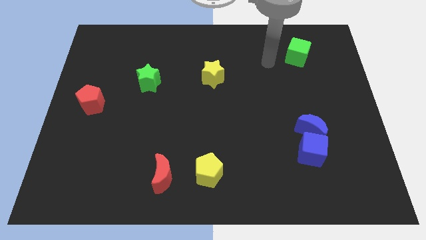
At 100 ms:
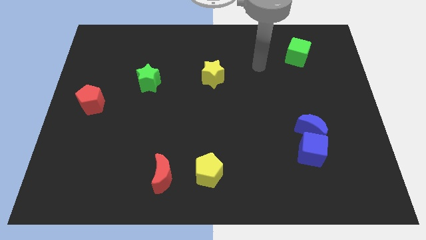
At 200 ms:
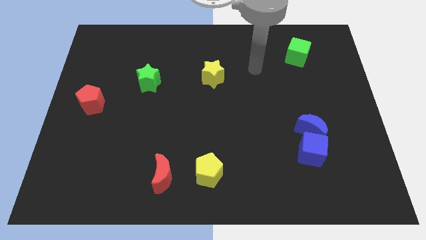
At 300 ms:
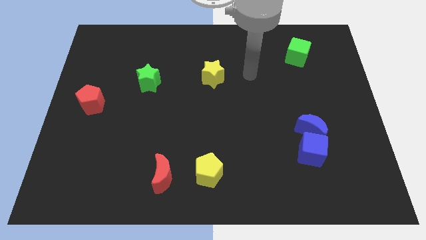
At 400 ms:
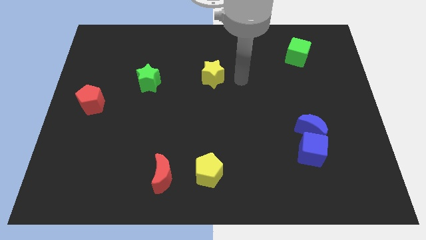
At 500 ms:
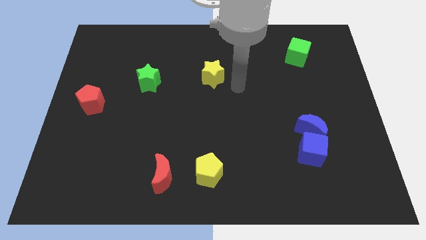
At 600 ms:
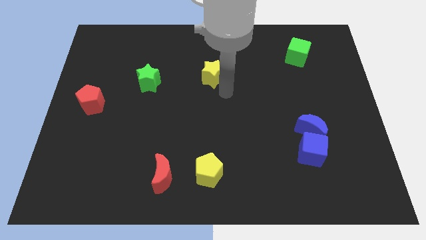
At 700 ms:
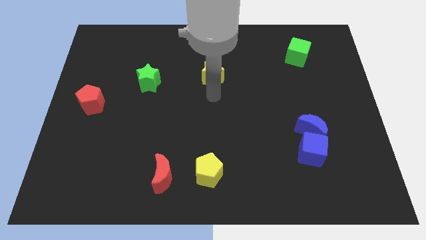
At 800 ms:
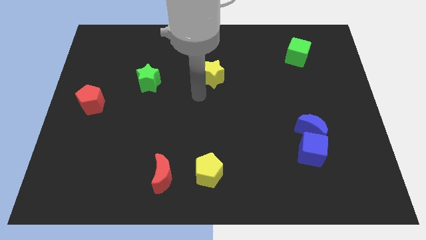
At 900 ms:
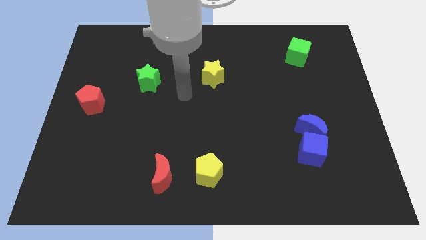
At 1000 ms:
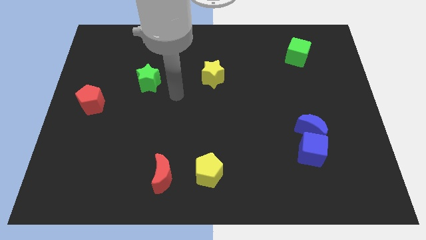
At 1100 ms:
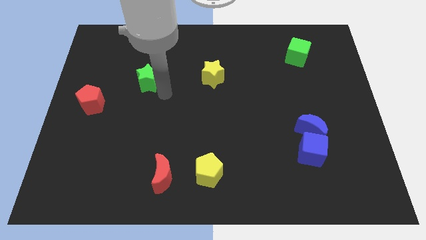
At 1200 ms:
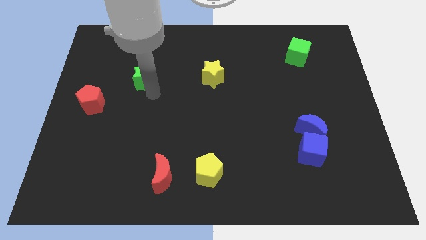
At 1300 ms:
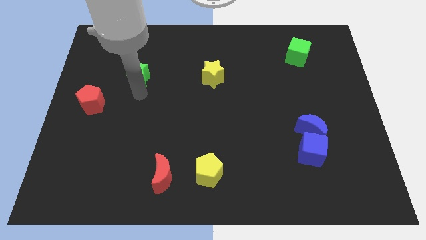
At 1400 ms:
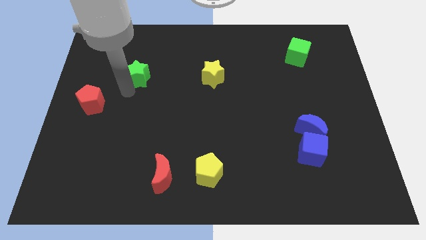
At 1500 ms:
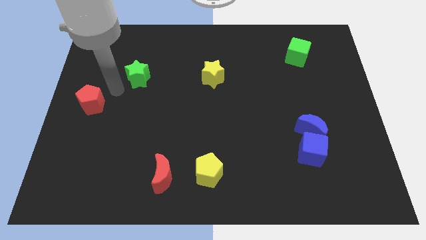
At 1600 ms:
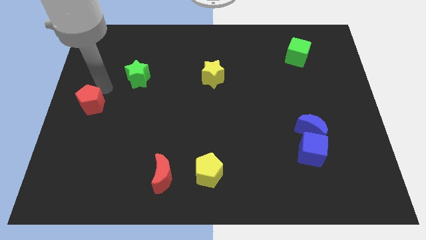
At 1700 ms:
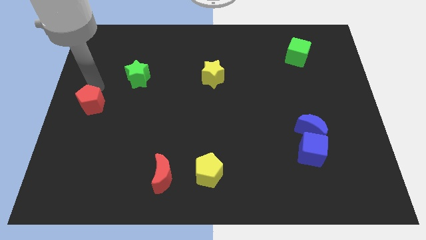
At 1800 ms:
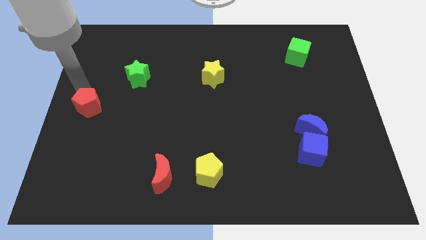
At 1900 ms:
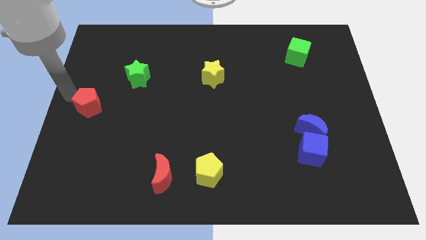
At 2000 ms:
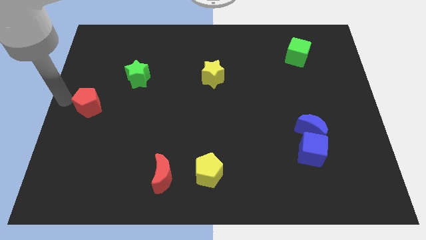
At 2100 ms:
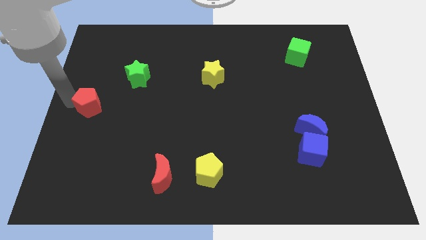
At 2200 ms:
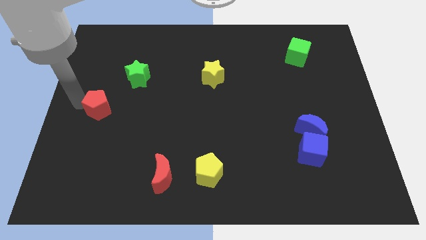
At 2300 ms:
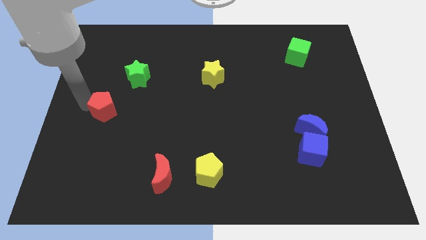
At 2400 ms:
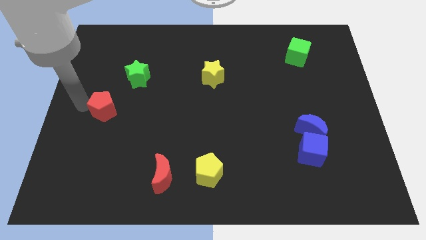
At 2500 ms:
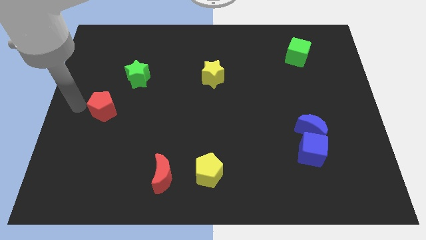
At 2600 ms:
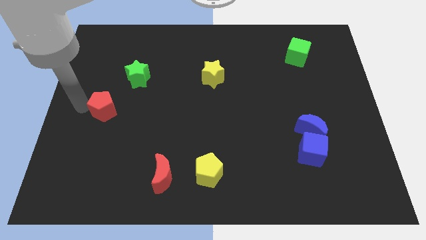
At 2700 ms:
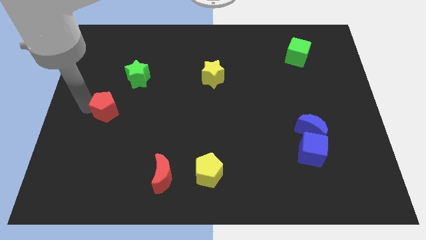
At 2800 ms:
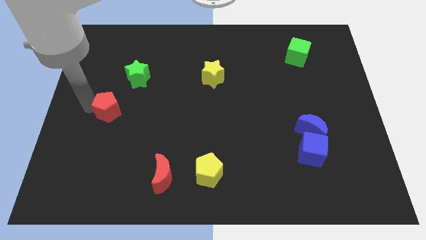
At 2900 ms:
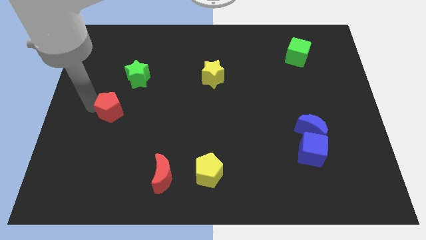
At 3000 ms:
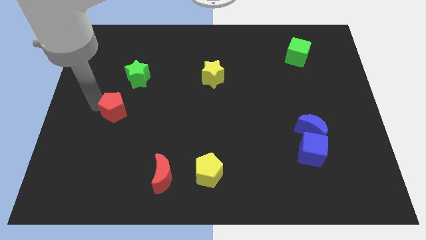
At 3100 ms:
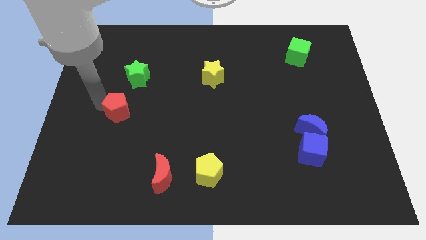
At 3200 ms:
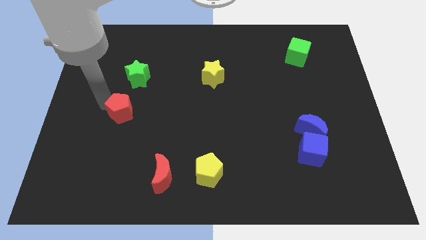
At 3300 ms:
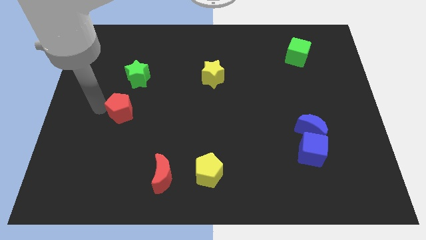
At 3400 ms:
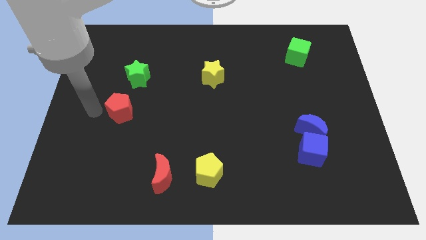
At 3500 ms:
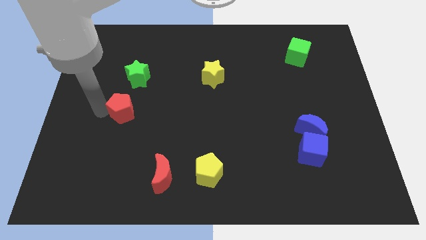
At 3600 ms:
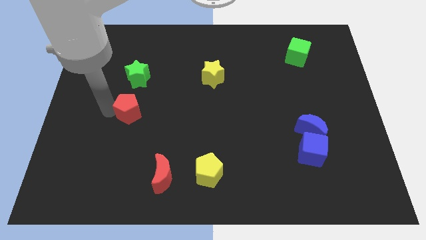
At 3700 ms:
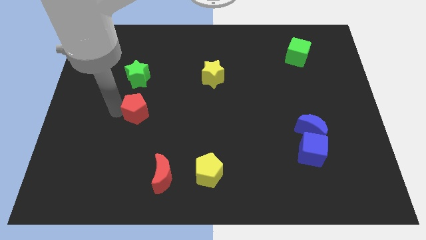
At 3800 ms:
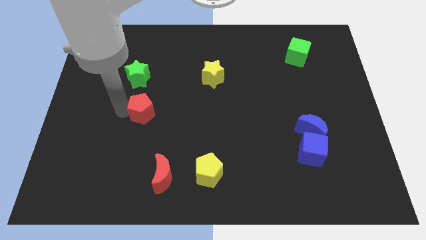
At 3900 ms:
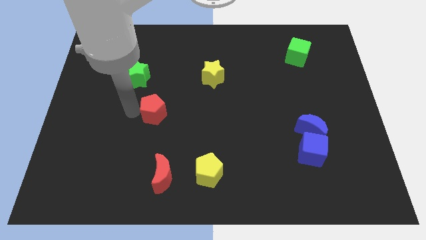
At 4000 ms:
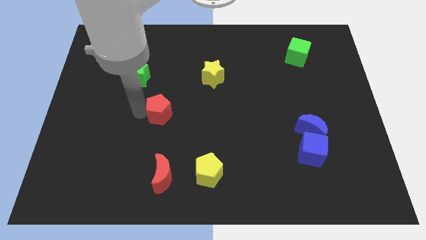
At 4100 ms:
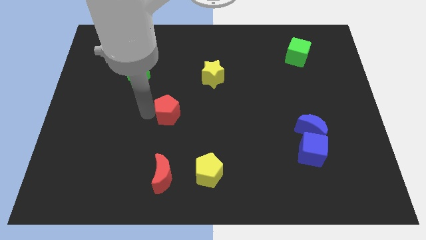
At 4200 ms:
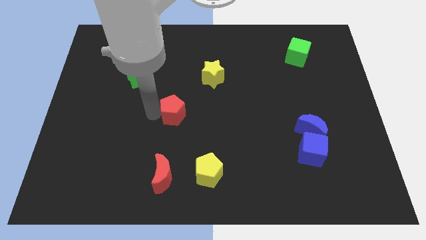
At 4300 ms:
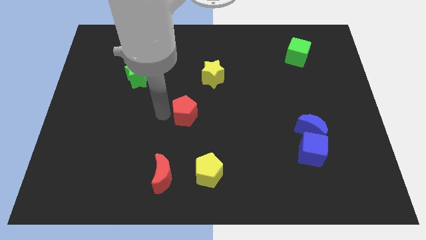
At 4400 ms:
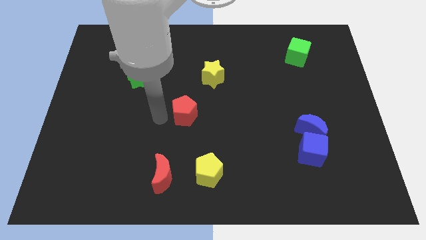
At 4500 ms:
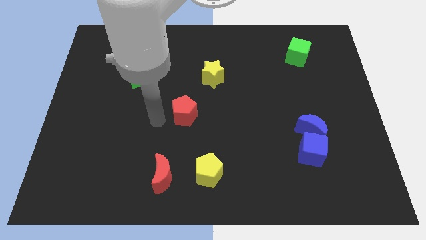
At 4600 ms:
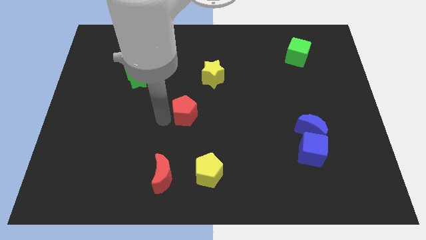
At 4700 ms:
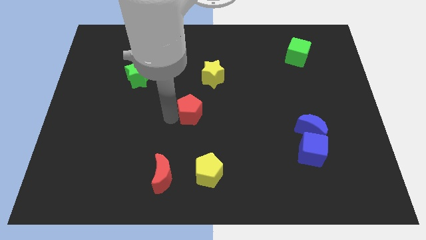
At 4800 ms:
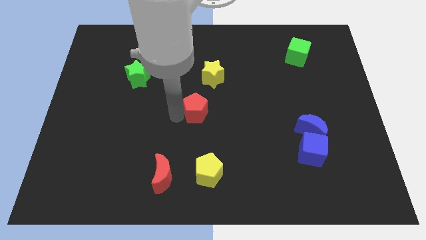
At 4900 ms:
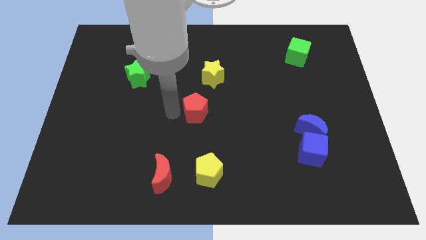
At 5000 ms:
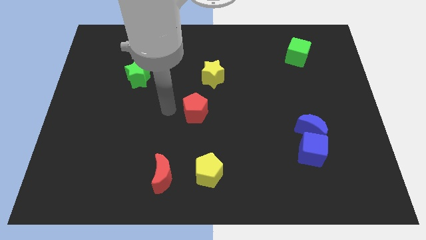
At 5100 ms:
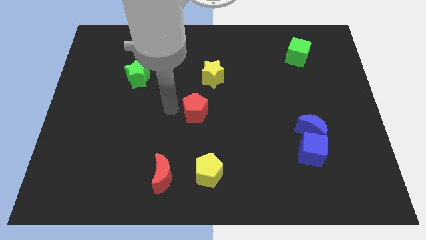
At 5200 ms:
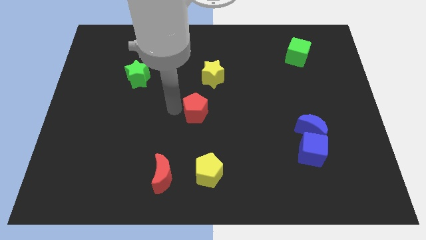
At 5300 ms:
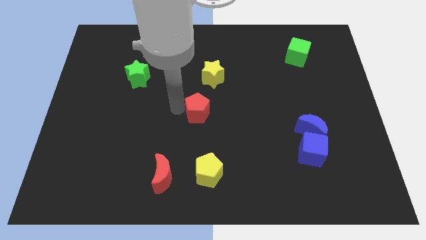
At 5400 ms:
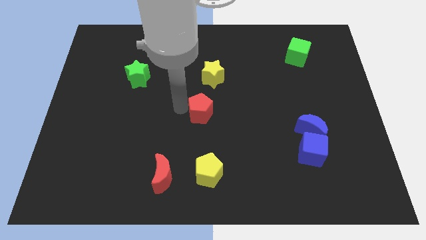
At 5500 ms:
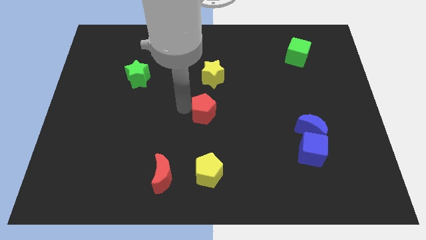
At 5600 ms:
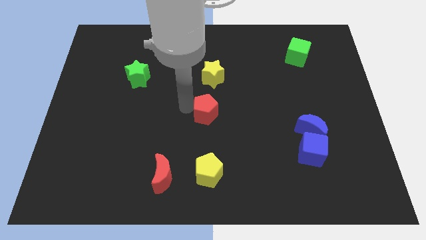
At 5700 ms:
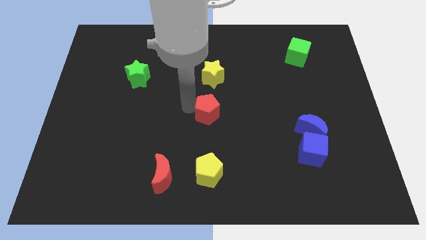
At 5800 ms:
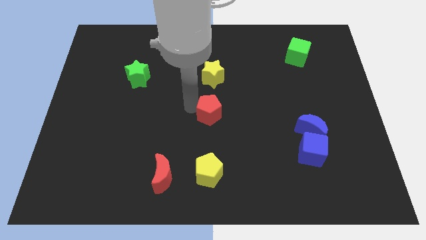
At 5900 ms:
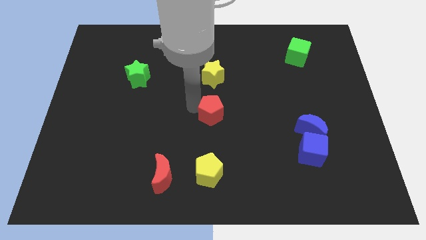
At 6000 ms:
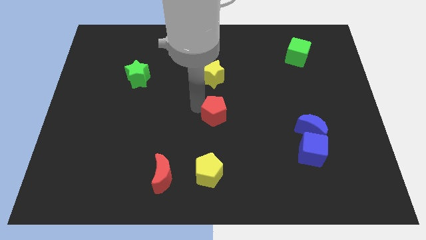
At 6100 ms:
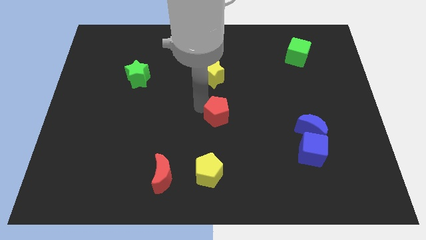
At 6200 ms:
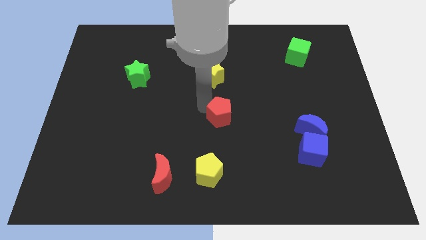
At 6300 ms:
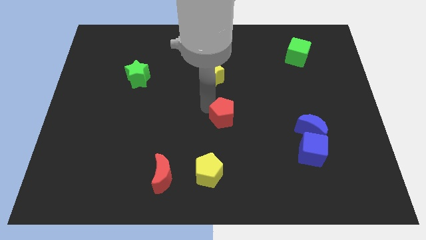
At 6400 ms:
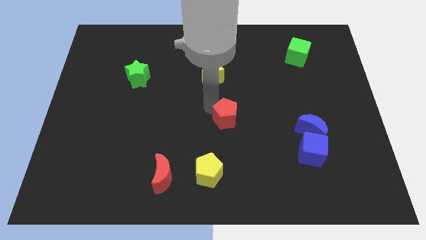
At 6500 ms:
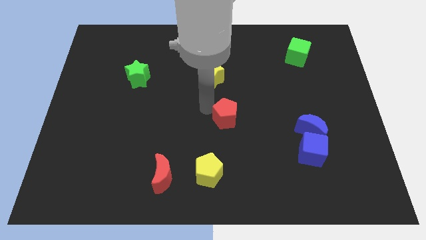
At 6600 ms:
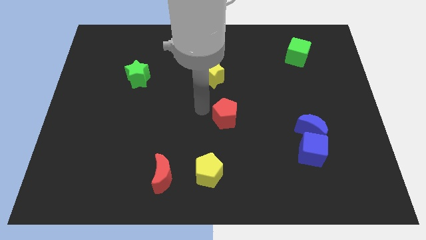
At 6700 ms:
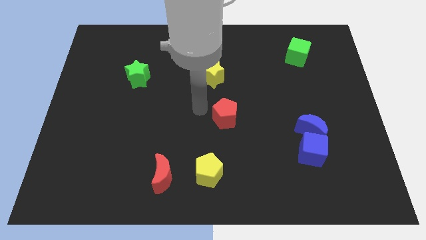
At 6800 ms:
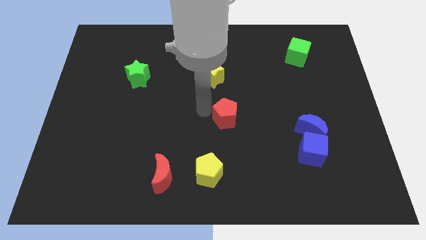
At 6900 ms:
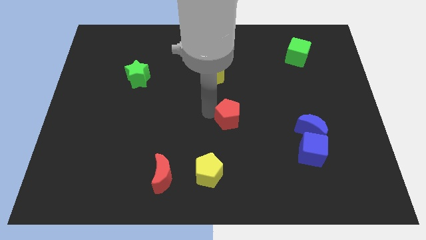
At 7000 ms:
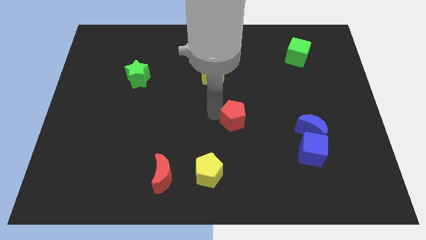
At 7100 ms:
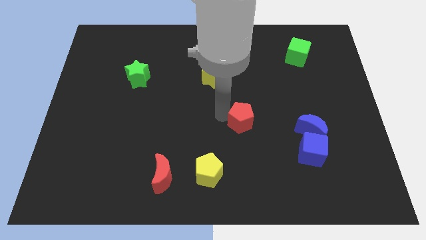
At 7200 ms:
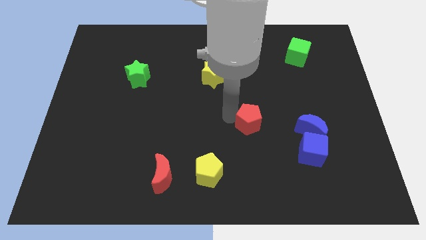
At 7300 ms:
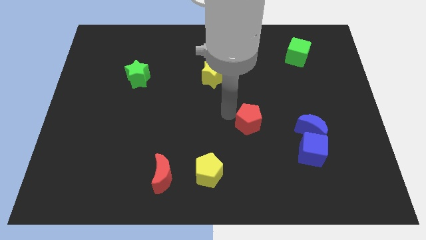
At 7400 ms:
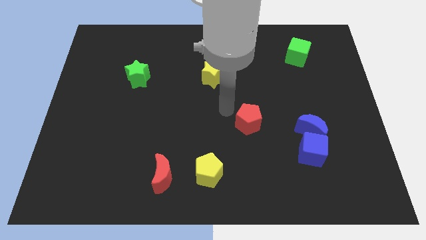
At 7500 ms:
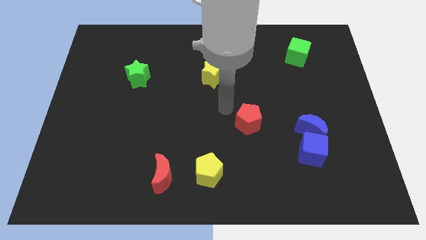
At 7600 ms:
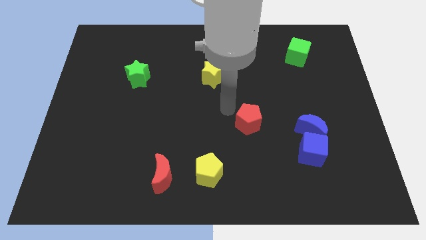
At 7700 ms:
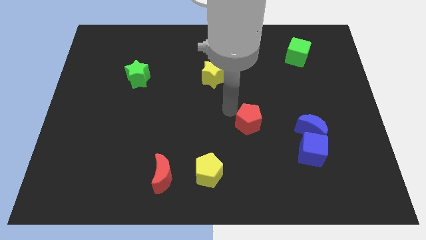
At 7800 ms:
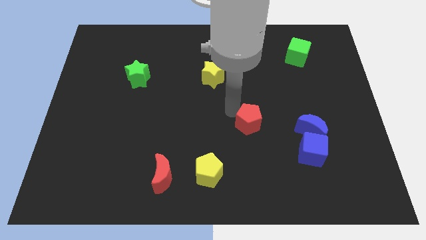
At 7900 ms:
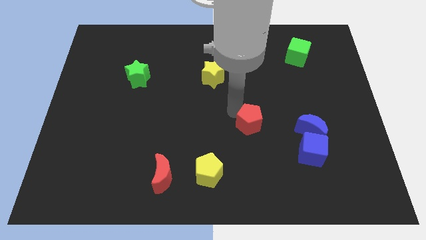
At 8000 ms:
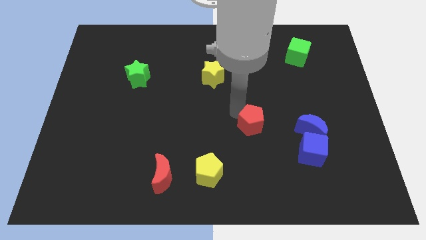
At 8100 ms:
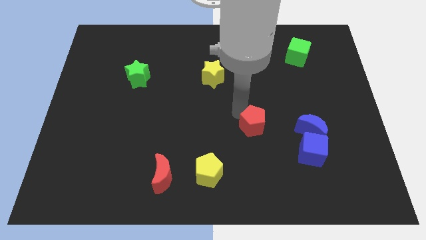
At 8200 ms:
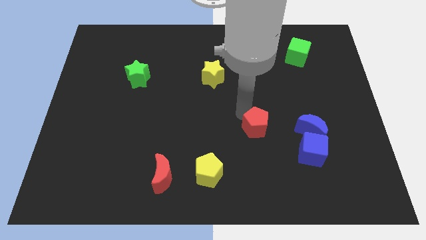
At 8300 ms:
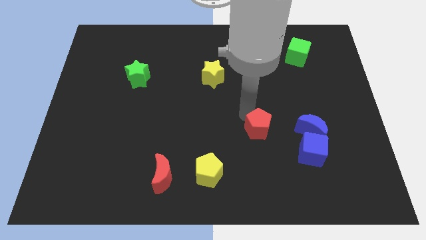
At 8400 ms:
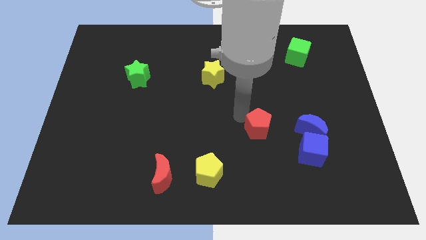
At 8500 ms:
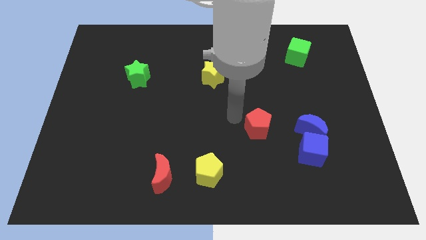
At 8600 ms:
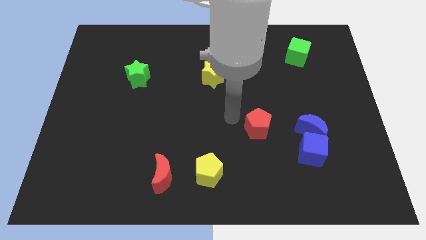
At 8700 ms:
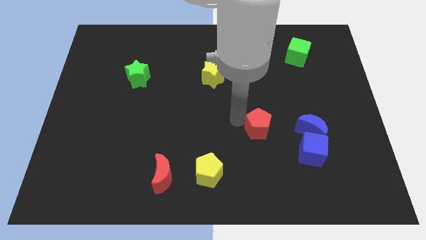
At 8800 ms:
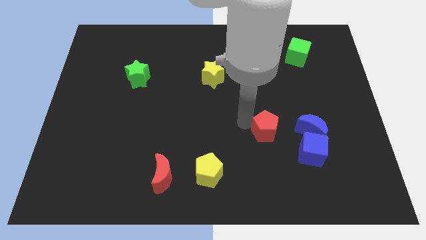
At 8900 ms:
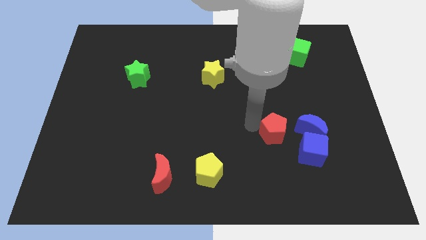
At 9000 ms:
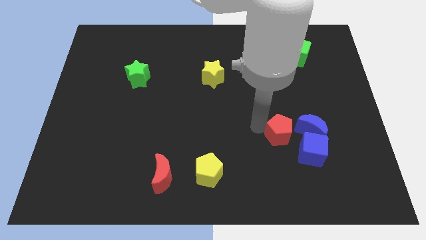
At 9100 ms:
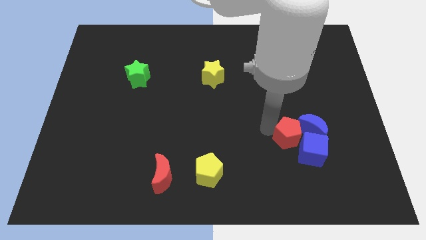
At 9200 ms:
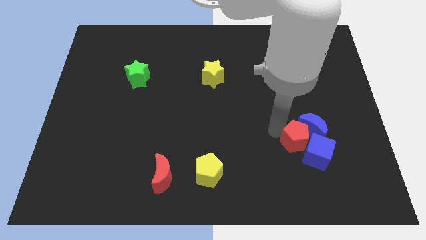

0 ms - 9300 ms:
push the red pentagon towards the blue cube
